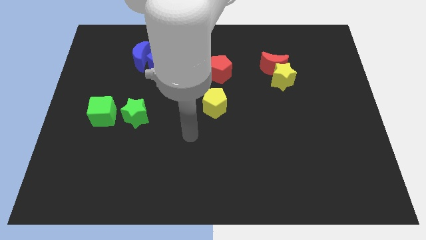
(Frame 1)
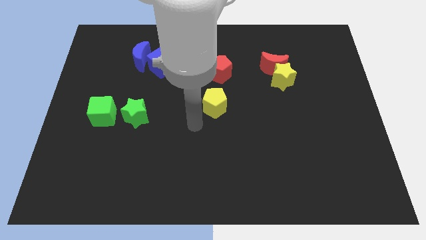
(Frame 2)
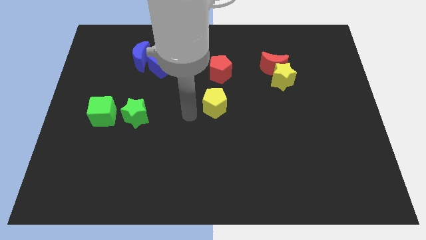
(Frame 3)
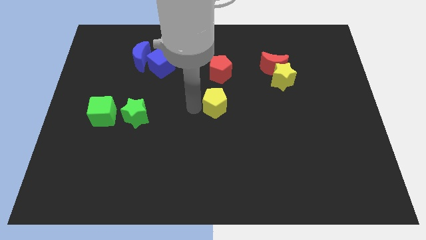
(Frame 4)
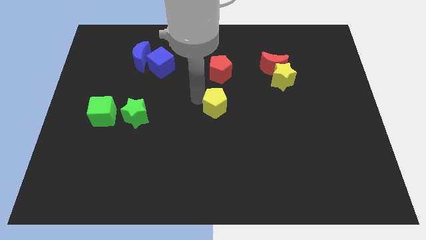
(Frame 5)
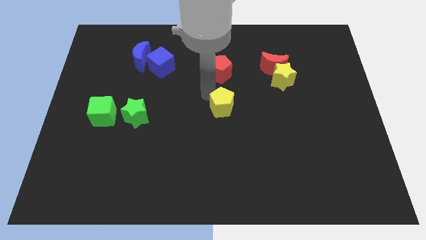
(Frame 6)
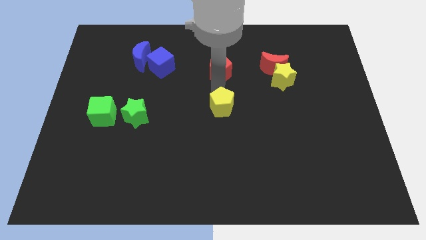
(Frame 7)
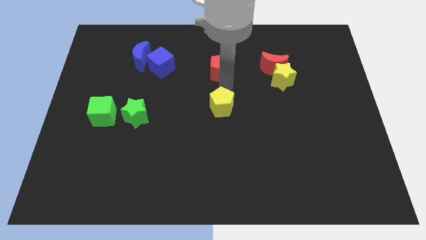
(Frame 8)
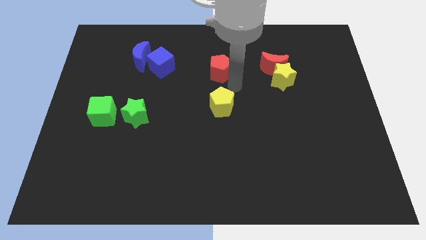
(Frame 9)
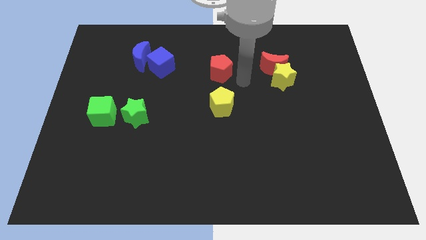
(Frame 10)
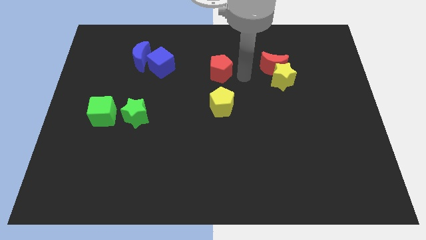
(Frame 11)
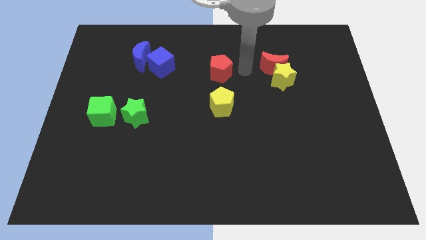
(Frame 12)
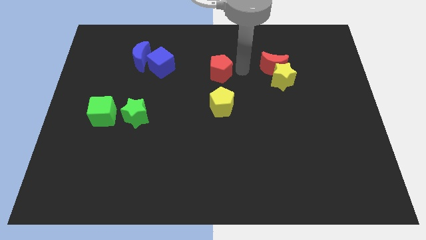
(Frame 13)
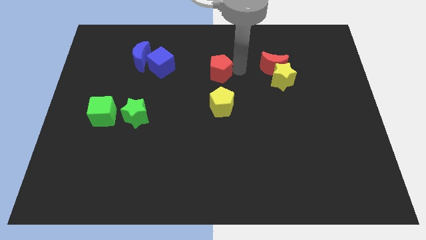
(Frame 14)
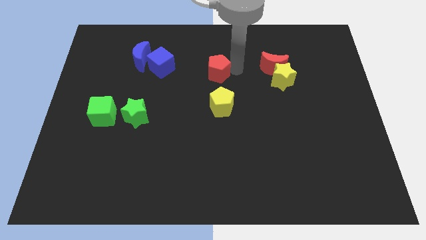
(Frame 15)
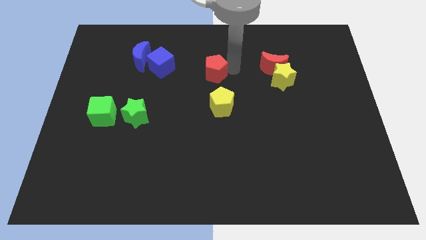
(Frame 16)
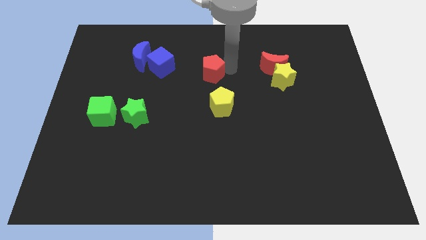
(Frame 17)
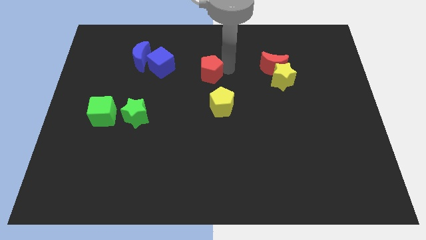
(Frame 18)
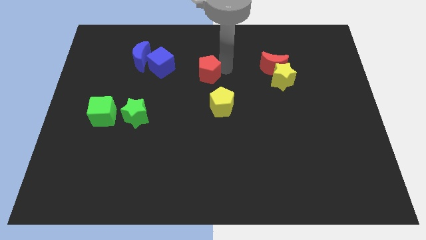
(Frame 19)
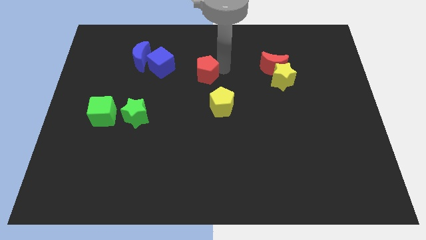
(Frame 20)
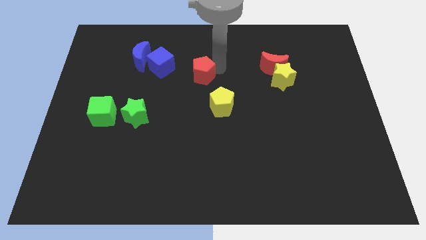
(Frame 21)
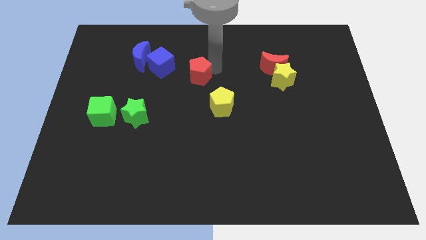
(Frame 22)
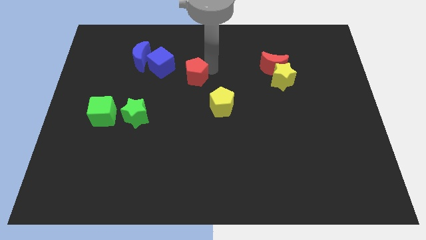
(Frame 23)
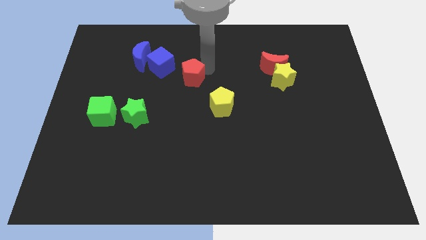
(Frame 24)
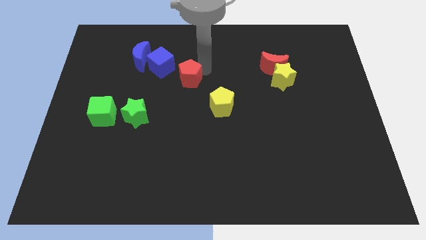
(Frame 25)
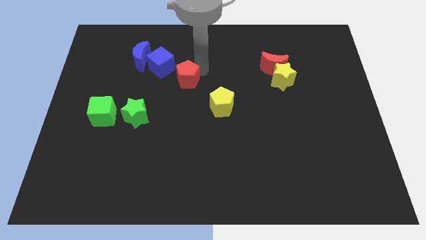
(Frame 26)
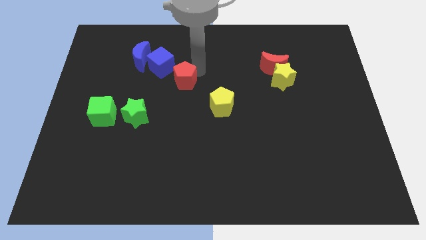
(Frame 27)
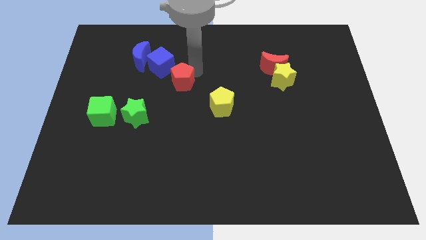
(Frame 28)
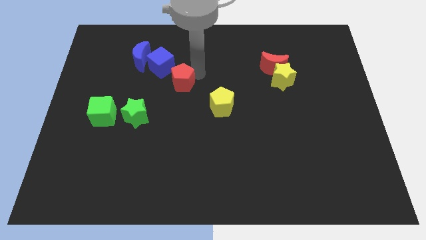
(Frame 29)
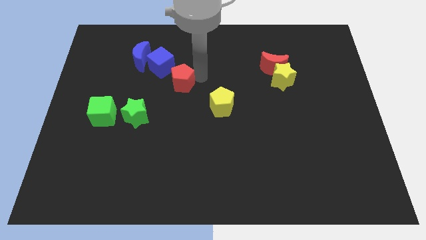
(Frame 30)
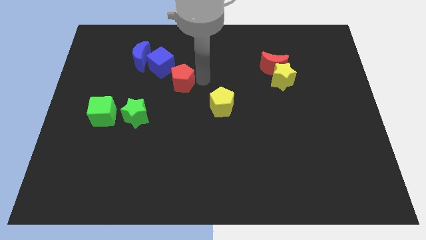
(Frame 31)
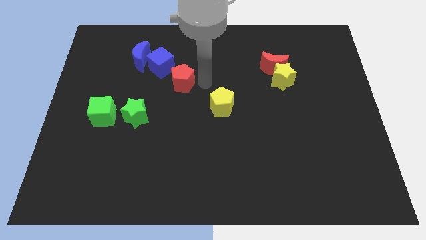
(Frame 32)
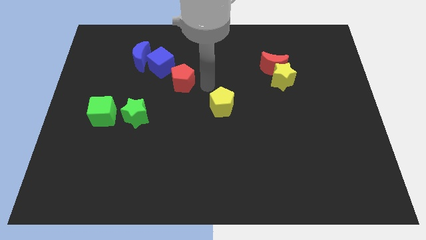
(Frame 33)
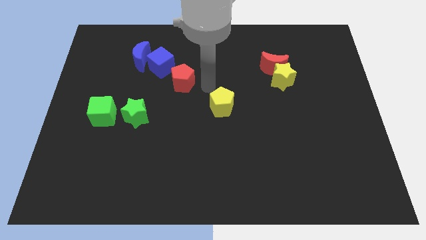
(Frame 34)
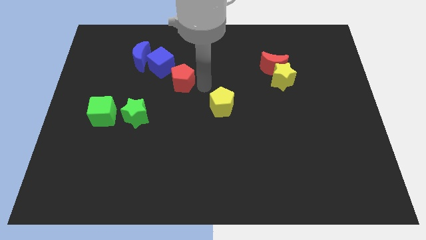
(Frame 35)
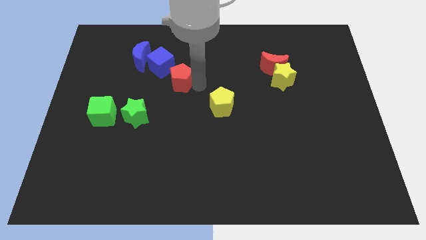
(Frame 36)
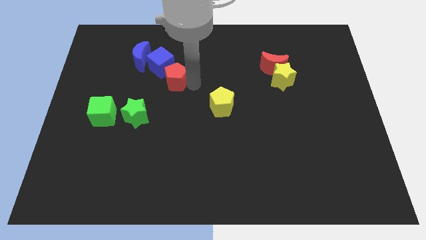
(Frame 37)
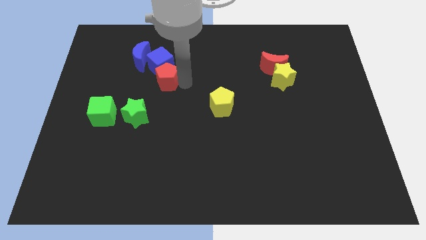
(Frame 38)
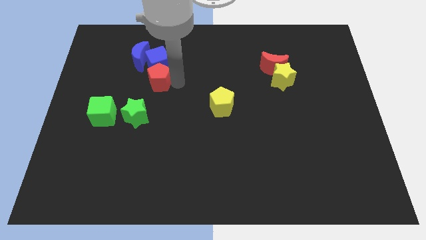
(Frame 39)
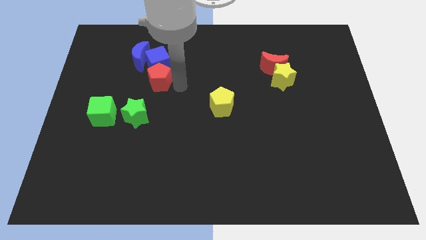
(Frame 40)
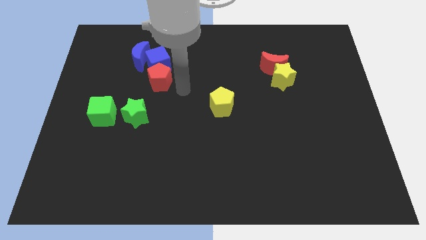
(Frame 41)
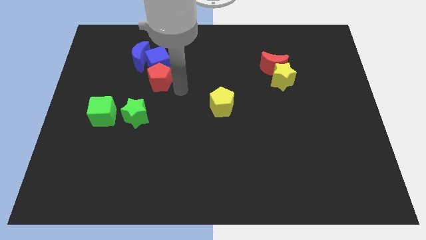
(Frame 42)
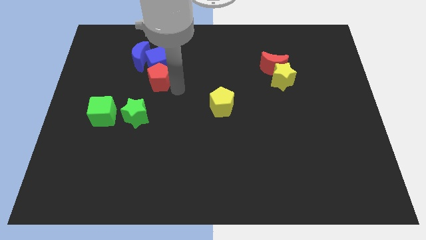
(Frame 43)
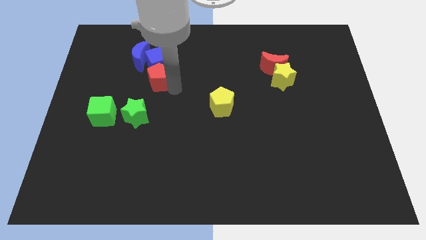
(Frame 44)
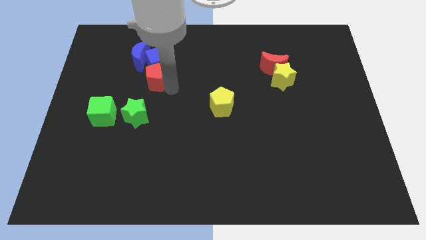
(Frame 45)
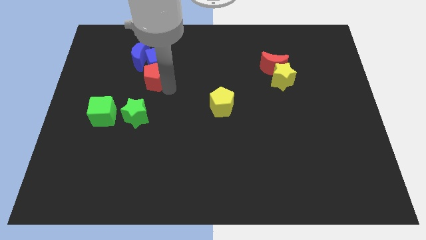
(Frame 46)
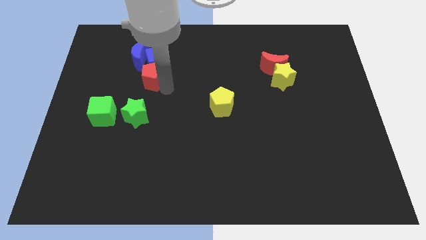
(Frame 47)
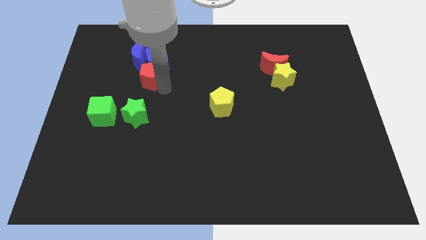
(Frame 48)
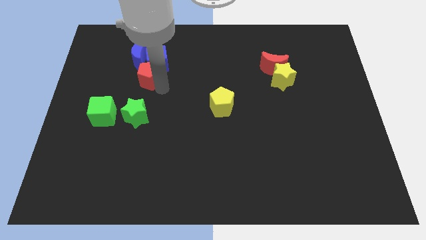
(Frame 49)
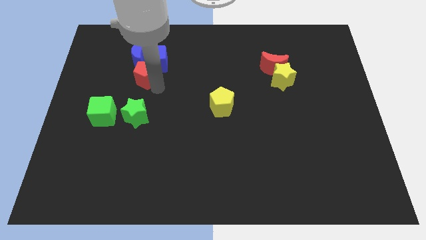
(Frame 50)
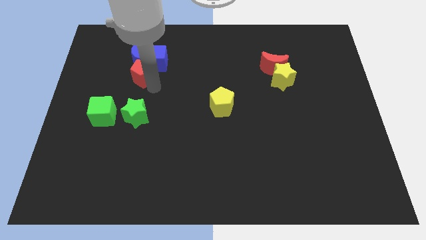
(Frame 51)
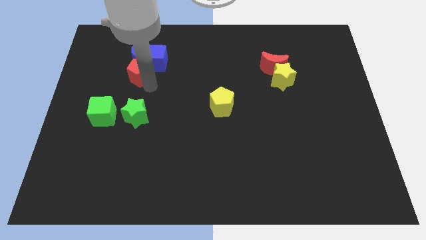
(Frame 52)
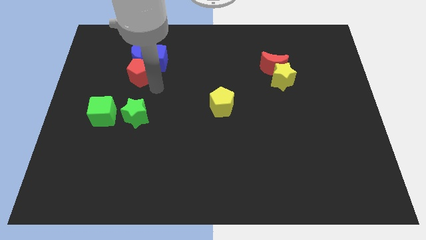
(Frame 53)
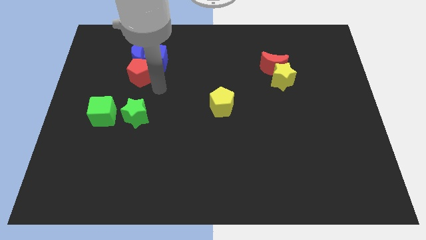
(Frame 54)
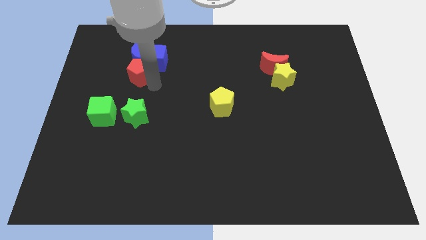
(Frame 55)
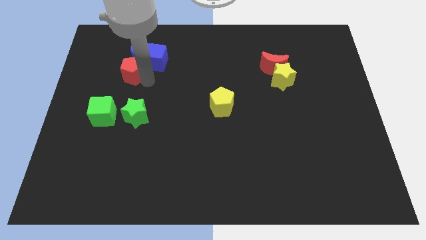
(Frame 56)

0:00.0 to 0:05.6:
put the red pentagon left of the blue cube

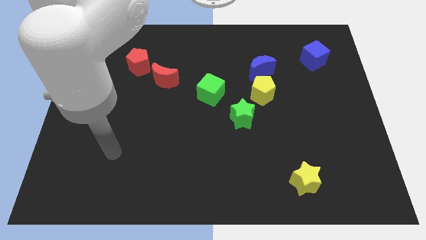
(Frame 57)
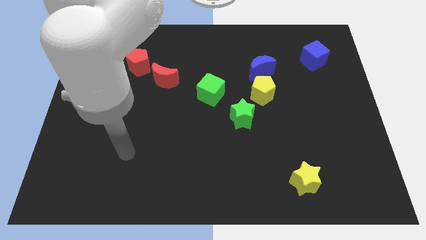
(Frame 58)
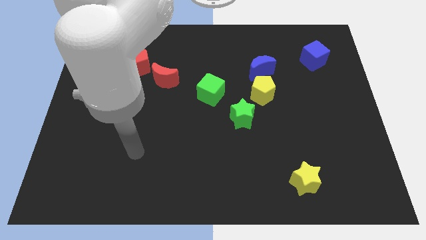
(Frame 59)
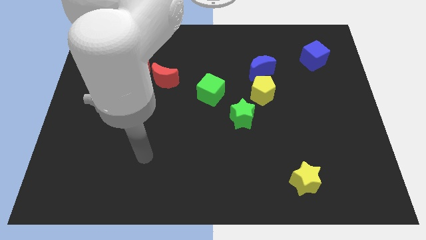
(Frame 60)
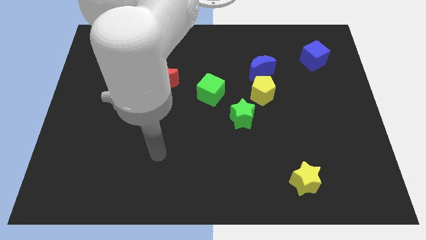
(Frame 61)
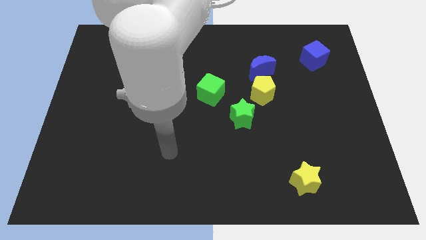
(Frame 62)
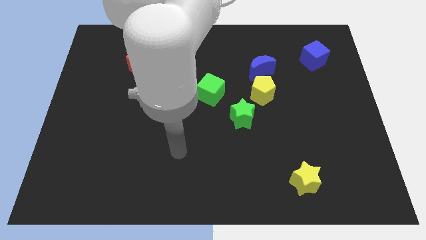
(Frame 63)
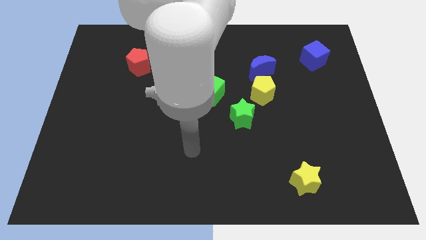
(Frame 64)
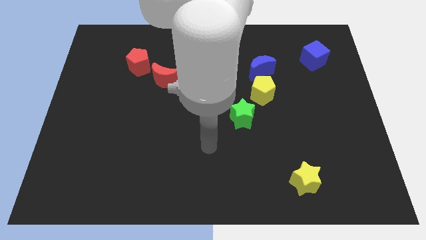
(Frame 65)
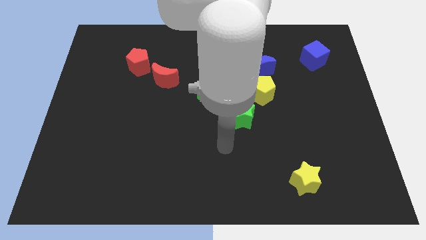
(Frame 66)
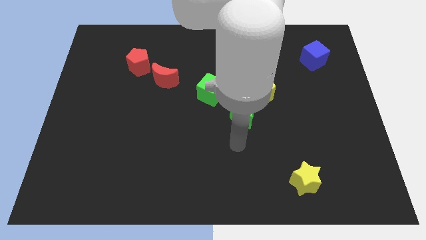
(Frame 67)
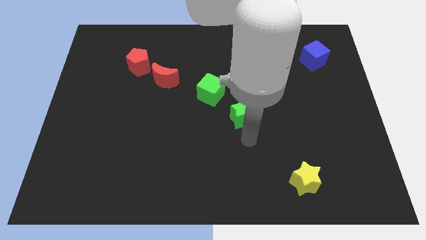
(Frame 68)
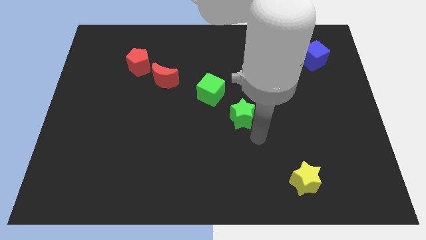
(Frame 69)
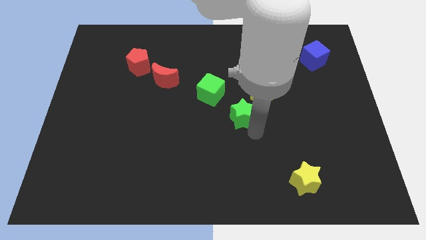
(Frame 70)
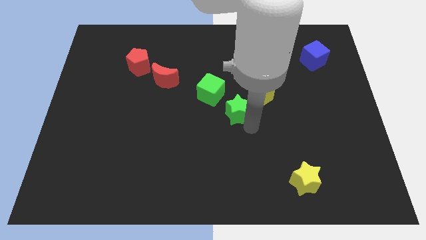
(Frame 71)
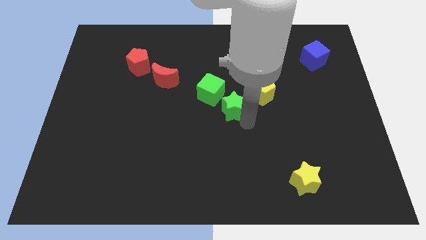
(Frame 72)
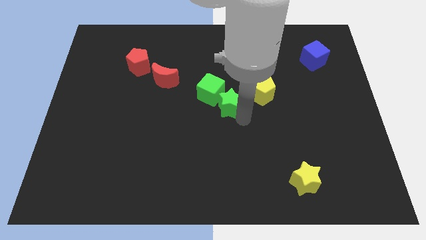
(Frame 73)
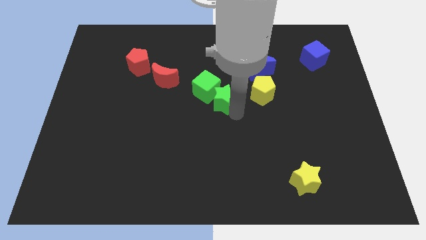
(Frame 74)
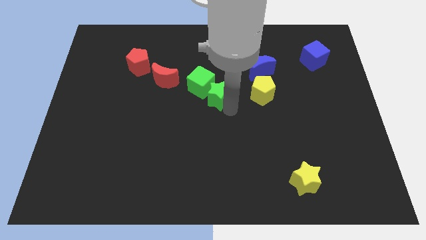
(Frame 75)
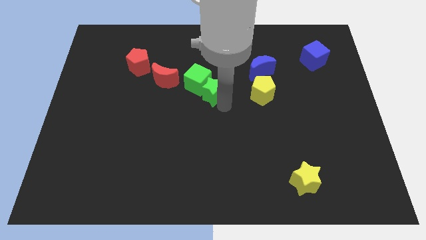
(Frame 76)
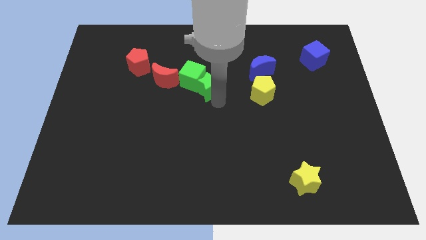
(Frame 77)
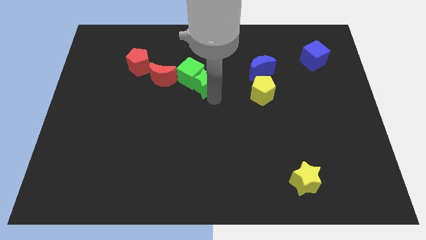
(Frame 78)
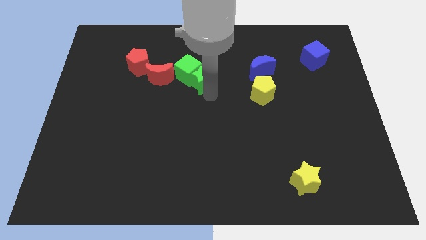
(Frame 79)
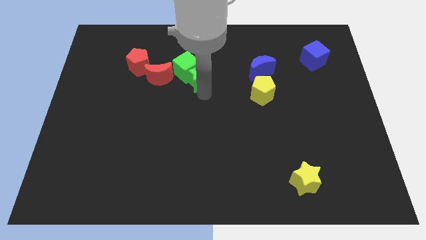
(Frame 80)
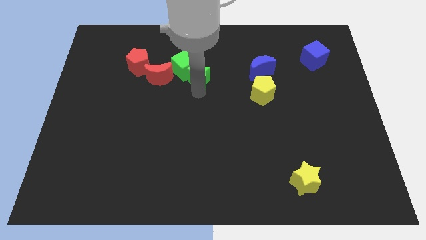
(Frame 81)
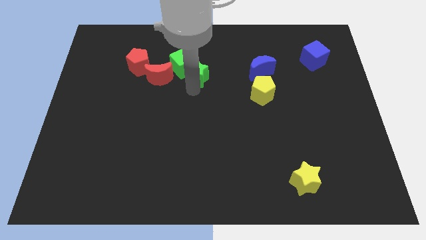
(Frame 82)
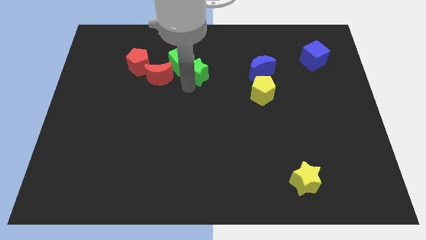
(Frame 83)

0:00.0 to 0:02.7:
slide the green star to the left side of the blue moon
